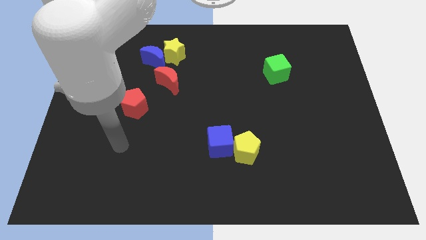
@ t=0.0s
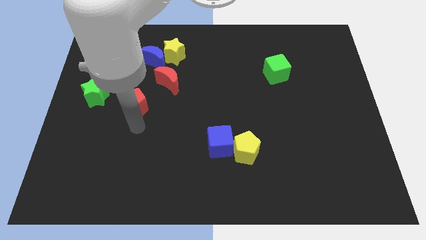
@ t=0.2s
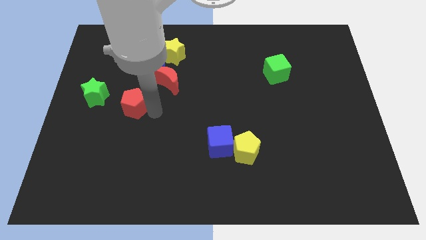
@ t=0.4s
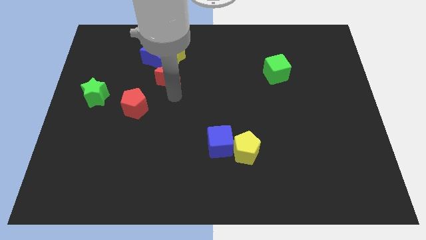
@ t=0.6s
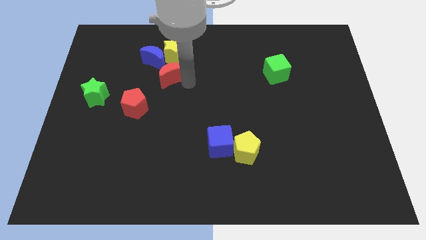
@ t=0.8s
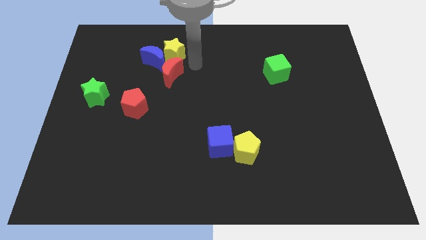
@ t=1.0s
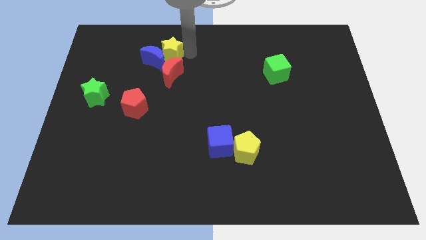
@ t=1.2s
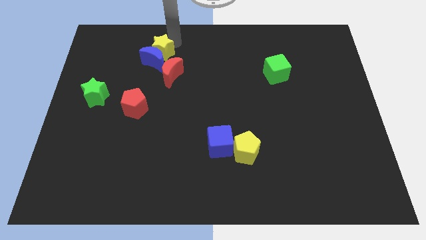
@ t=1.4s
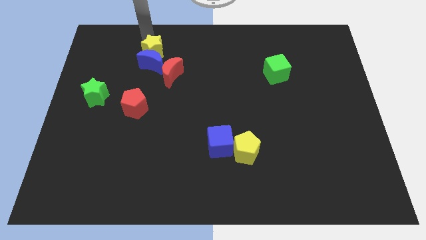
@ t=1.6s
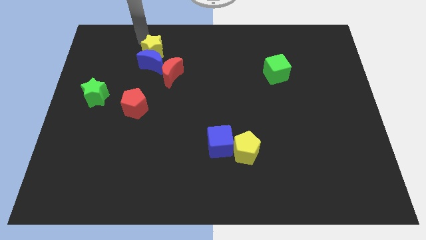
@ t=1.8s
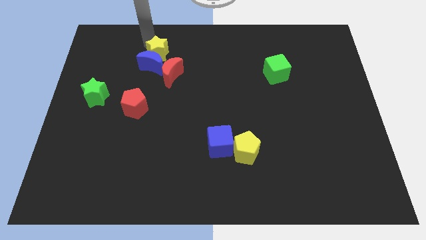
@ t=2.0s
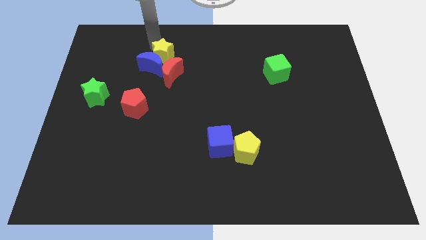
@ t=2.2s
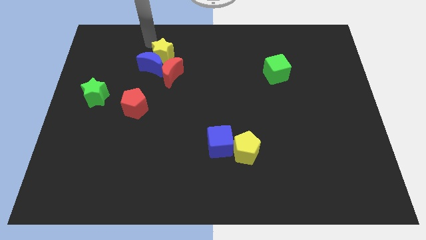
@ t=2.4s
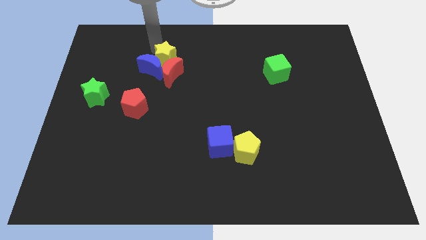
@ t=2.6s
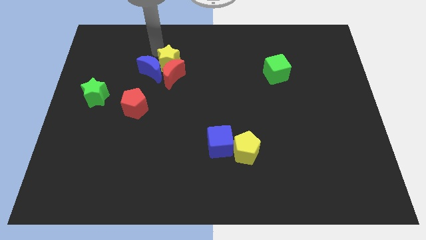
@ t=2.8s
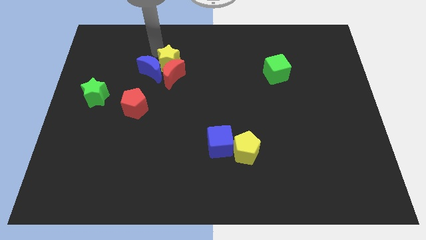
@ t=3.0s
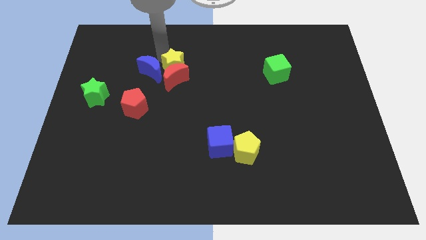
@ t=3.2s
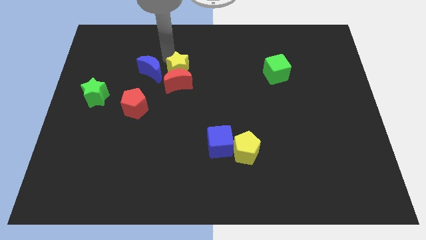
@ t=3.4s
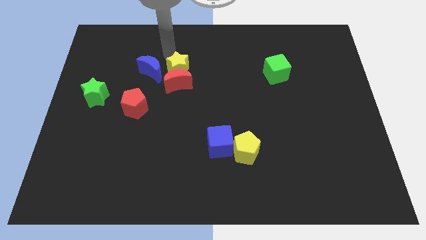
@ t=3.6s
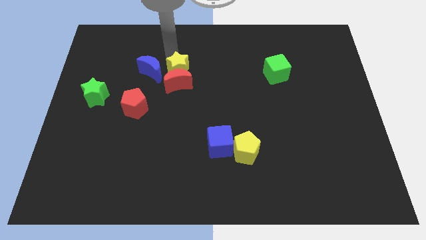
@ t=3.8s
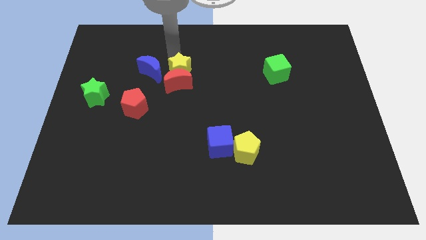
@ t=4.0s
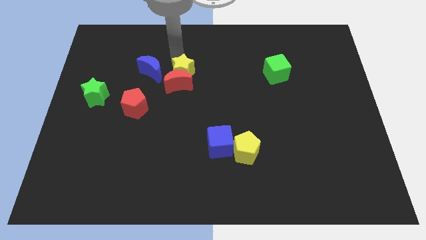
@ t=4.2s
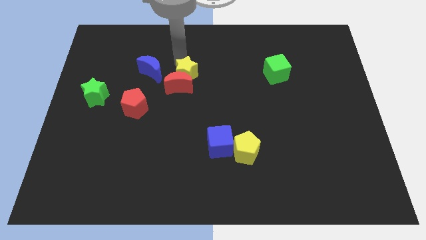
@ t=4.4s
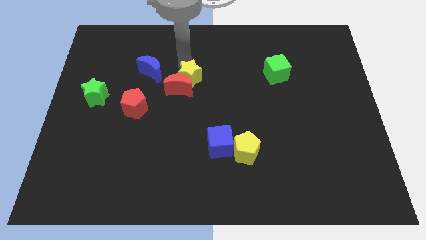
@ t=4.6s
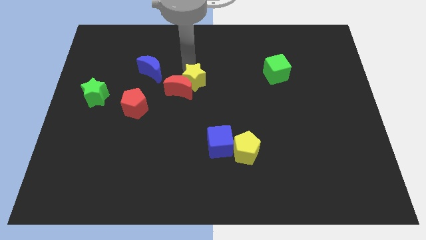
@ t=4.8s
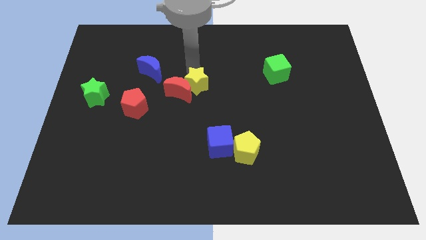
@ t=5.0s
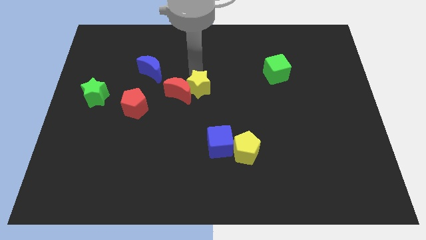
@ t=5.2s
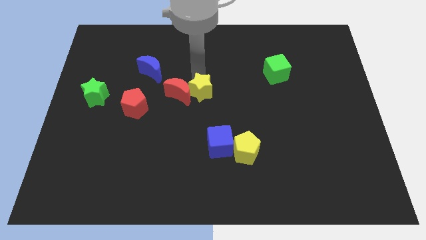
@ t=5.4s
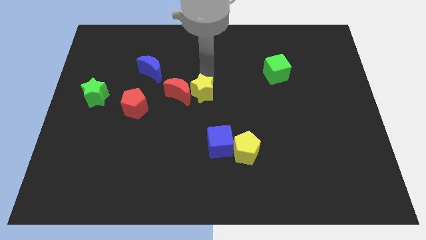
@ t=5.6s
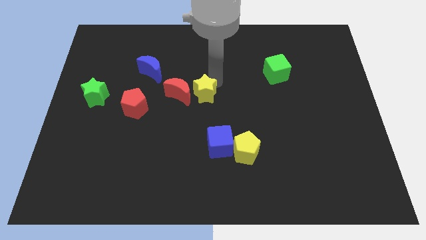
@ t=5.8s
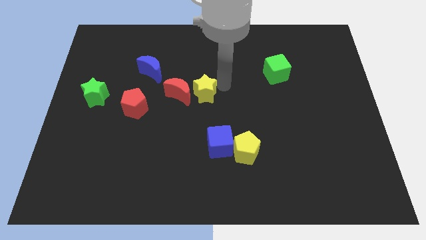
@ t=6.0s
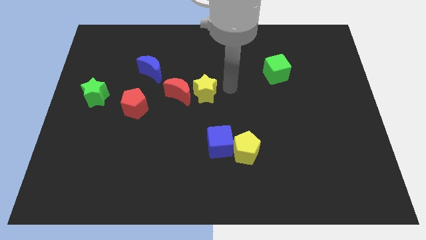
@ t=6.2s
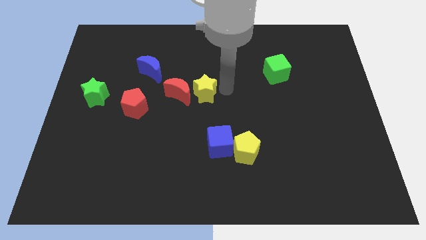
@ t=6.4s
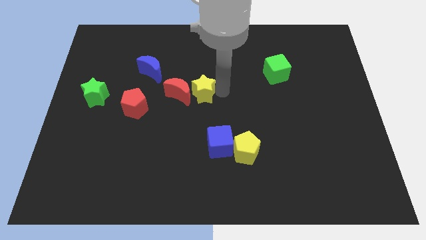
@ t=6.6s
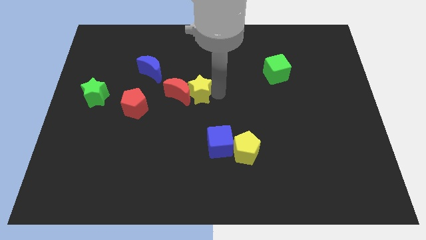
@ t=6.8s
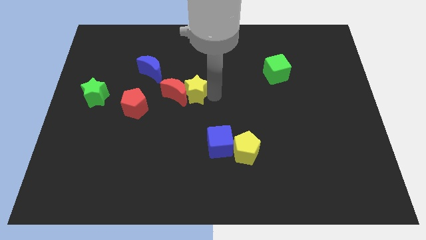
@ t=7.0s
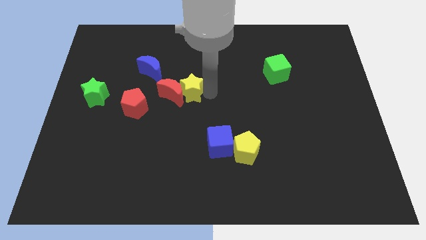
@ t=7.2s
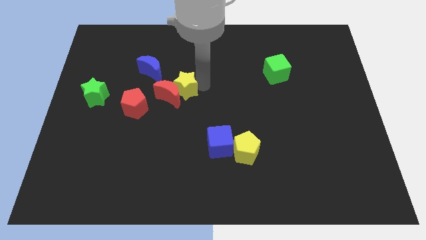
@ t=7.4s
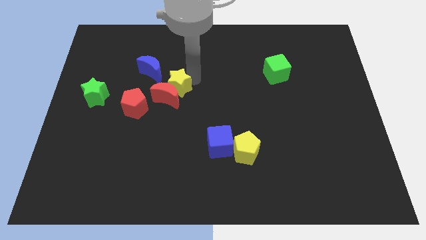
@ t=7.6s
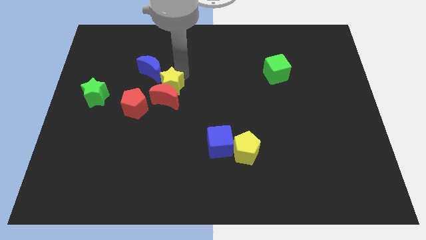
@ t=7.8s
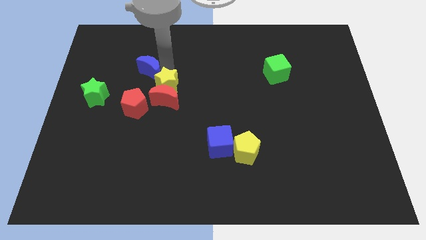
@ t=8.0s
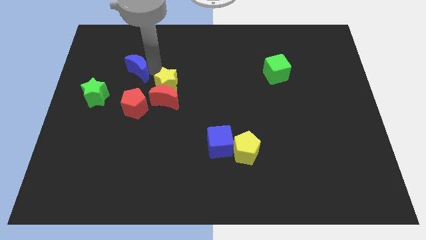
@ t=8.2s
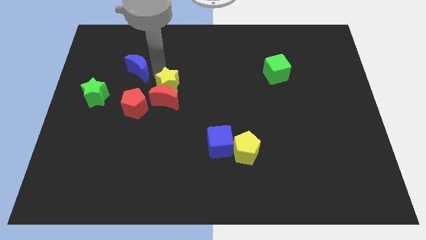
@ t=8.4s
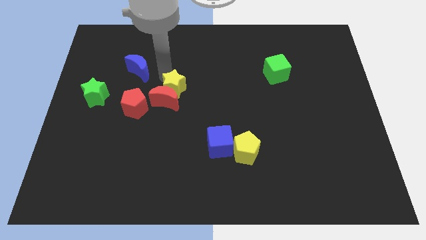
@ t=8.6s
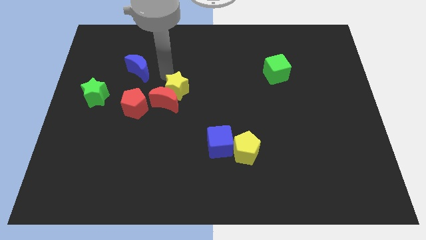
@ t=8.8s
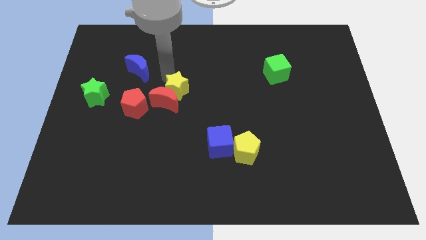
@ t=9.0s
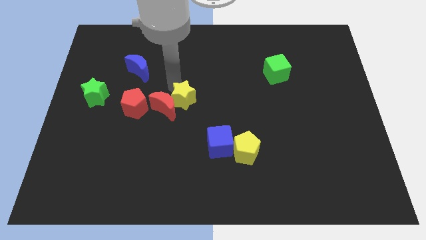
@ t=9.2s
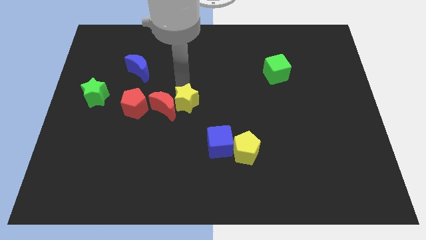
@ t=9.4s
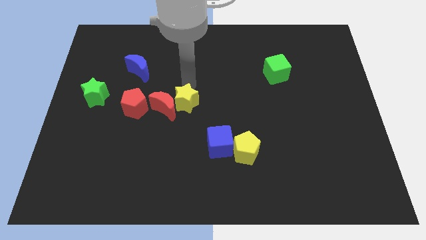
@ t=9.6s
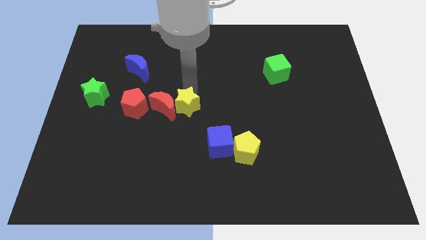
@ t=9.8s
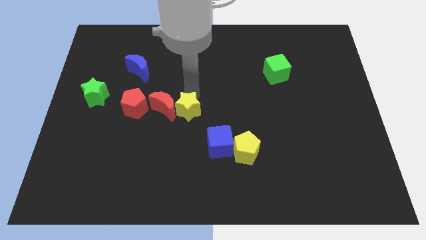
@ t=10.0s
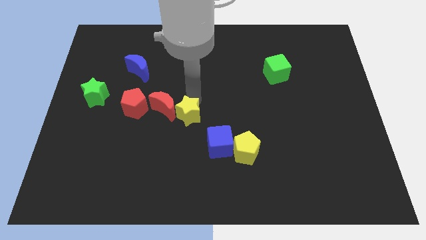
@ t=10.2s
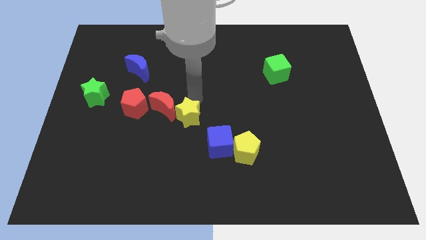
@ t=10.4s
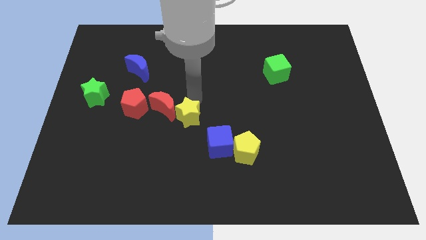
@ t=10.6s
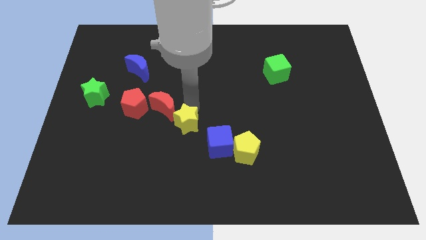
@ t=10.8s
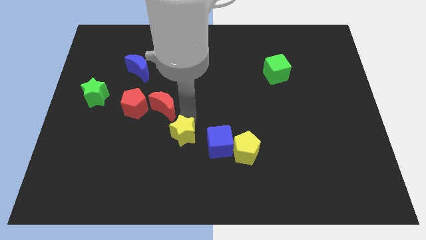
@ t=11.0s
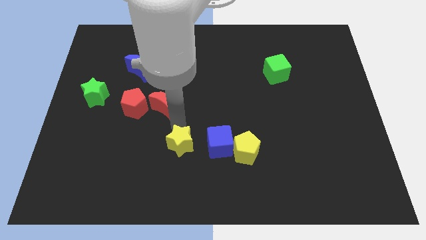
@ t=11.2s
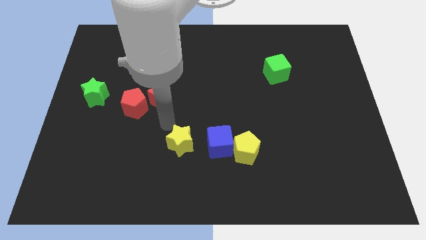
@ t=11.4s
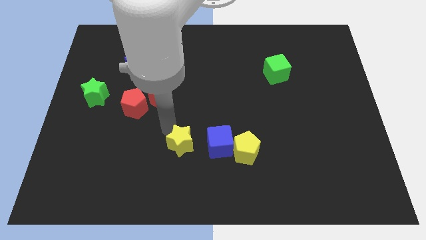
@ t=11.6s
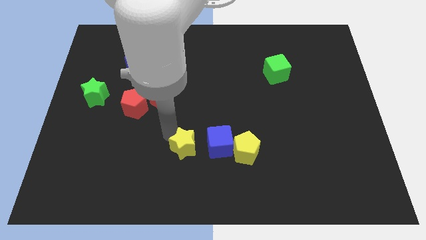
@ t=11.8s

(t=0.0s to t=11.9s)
put the yellow star diagonally down and to the left of the blue cube

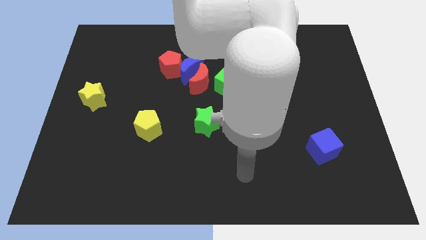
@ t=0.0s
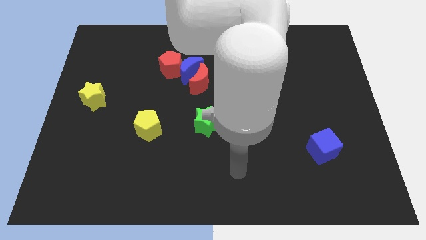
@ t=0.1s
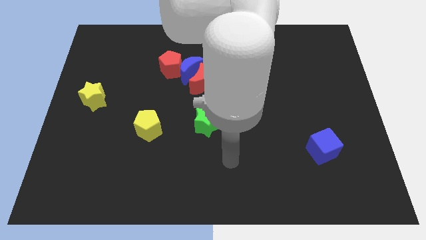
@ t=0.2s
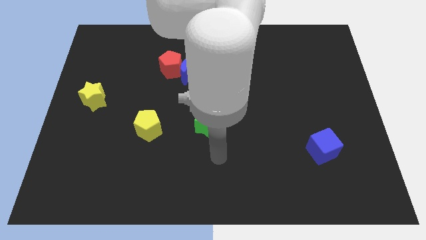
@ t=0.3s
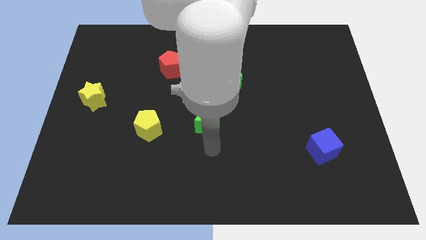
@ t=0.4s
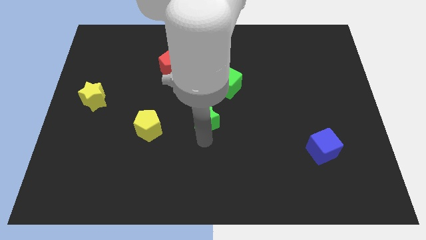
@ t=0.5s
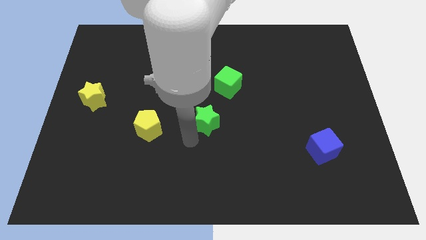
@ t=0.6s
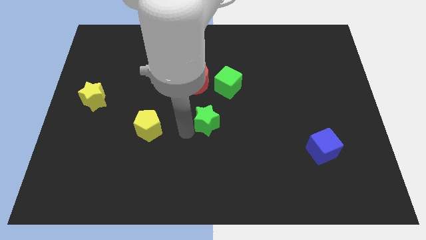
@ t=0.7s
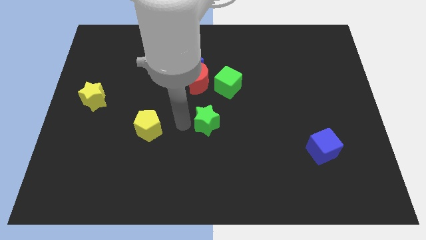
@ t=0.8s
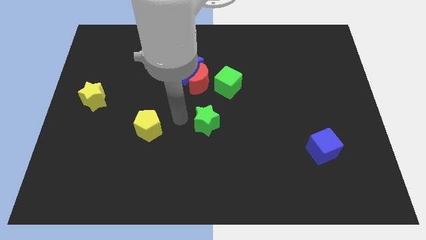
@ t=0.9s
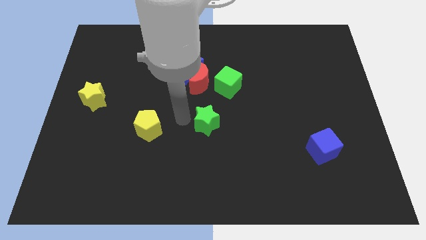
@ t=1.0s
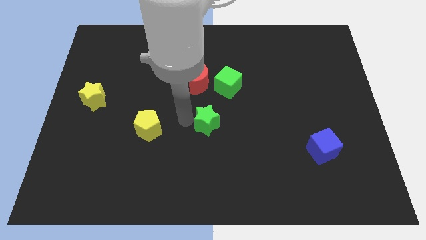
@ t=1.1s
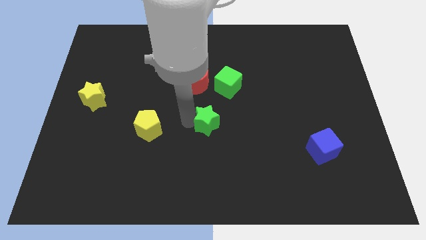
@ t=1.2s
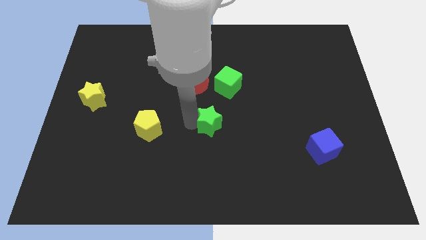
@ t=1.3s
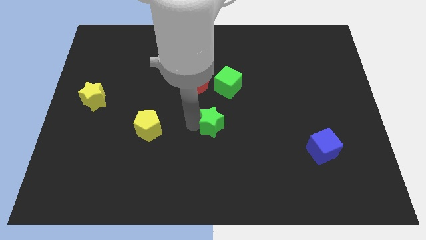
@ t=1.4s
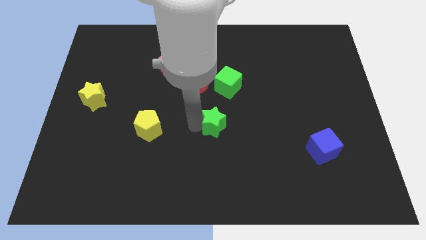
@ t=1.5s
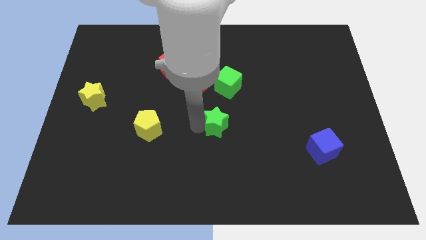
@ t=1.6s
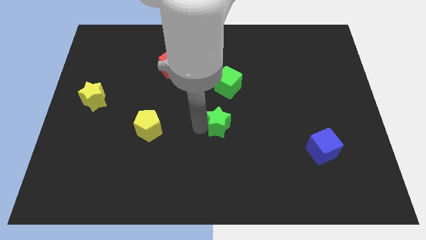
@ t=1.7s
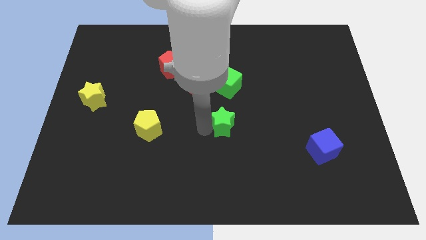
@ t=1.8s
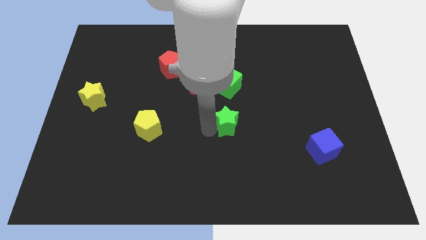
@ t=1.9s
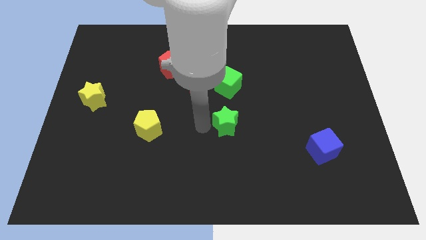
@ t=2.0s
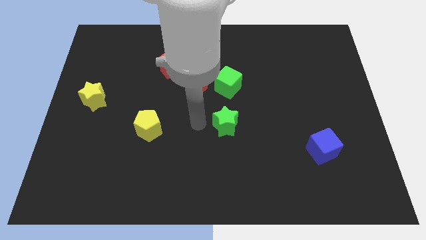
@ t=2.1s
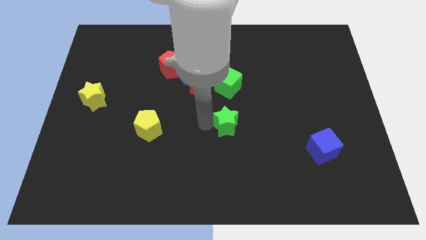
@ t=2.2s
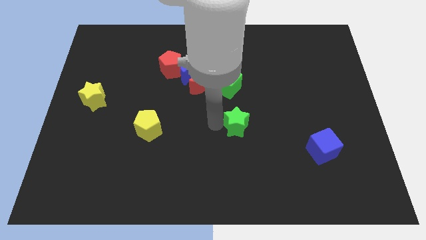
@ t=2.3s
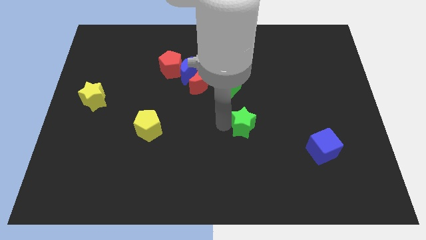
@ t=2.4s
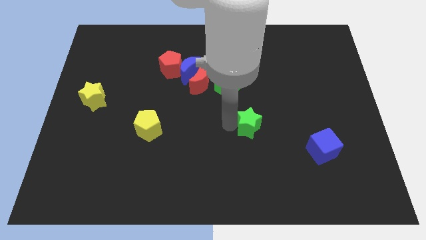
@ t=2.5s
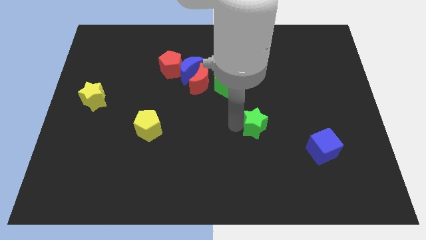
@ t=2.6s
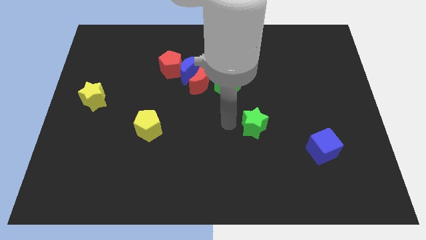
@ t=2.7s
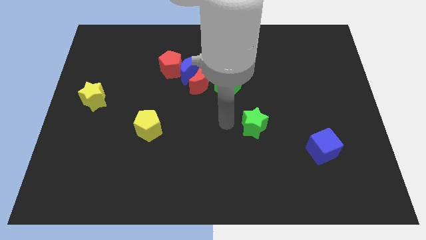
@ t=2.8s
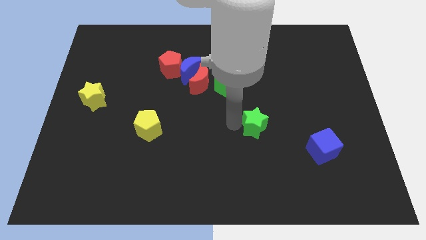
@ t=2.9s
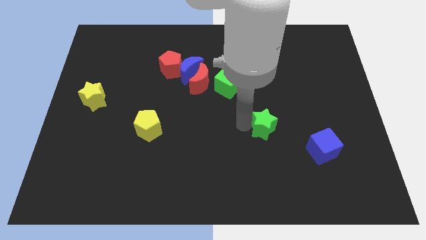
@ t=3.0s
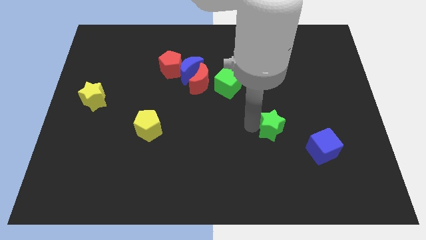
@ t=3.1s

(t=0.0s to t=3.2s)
put the green star to the top left side of the blue cube
